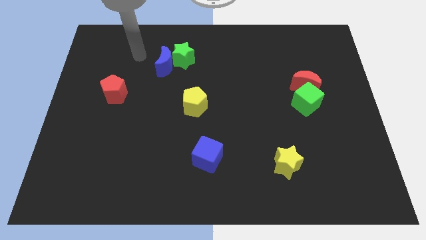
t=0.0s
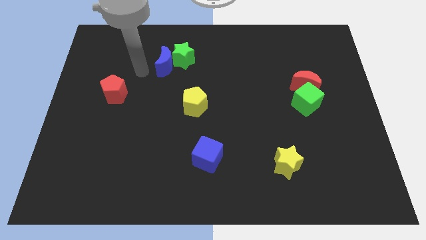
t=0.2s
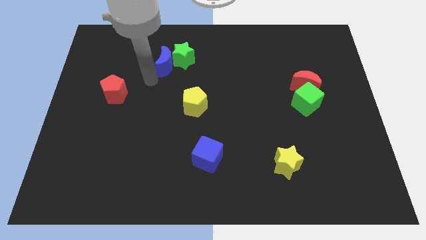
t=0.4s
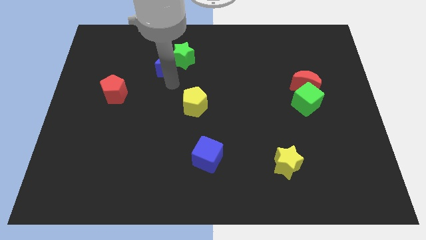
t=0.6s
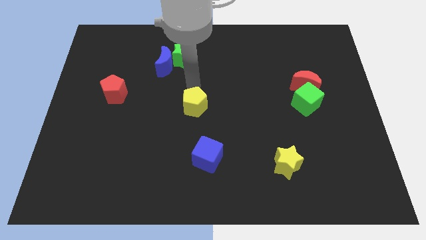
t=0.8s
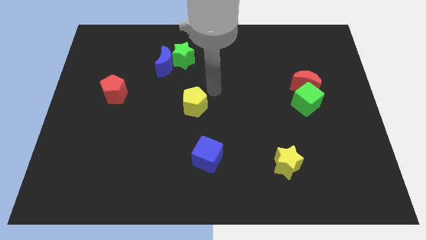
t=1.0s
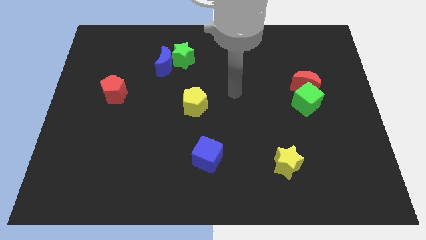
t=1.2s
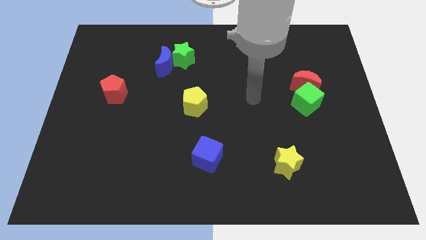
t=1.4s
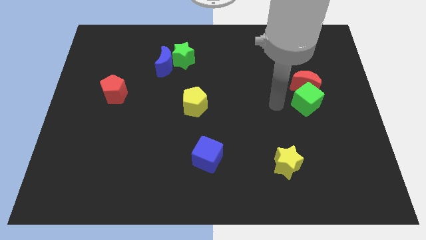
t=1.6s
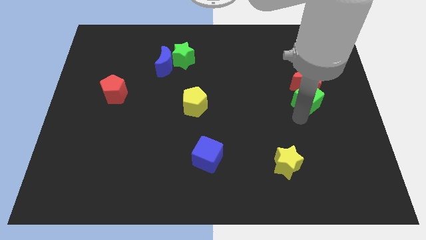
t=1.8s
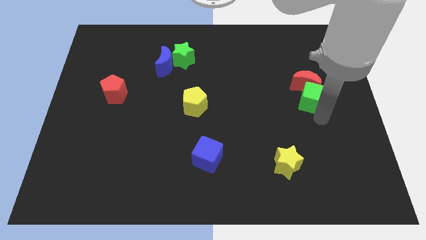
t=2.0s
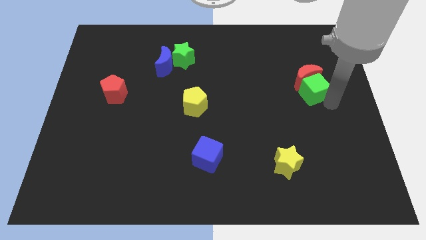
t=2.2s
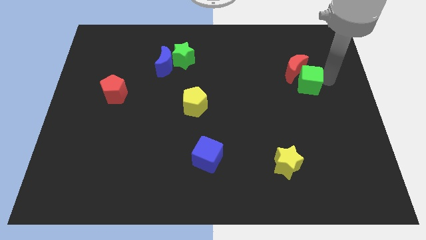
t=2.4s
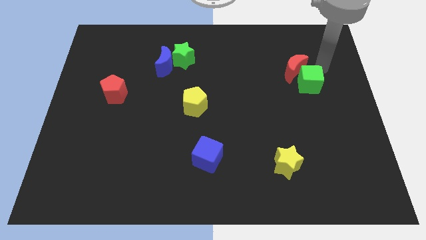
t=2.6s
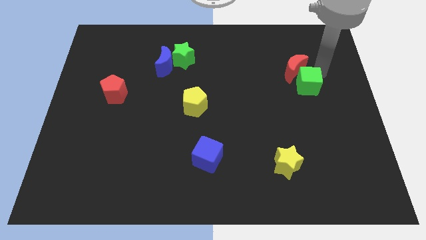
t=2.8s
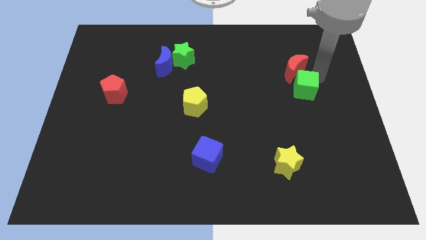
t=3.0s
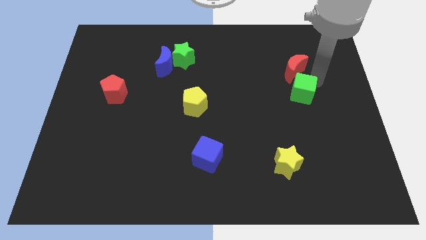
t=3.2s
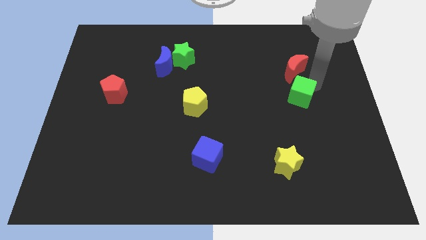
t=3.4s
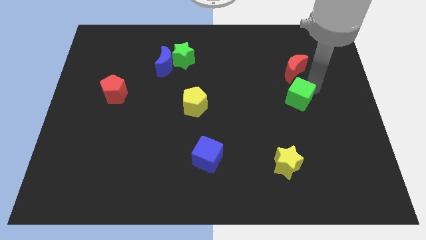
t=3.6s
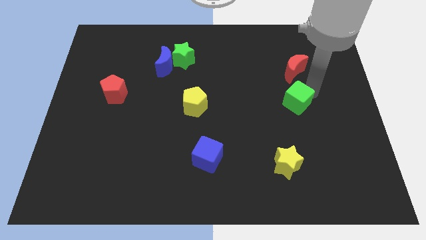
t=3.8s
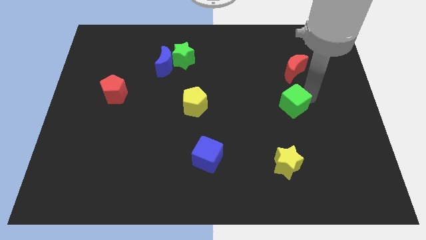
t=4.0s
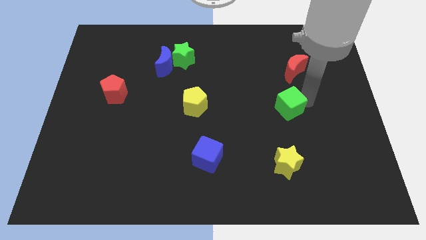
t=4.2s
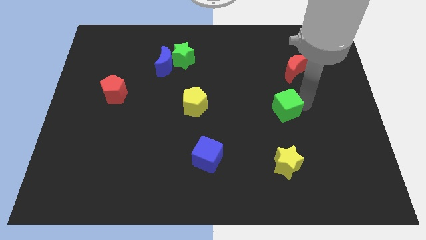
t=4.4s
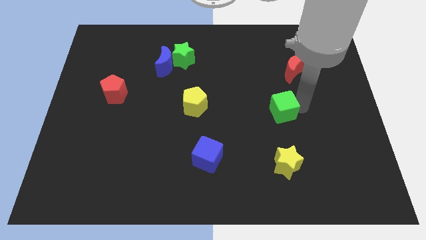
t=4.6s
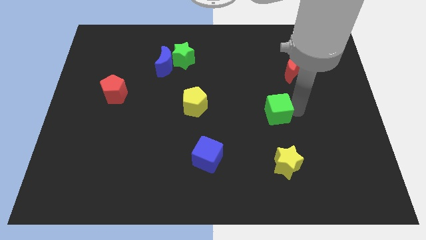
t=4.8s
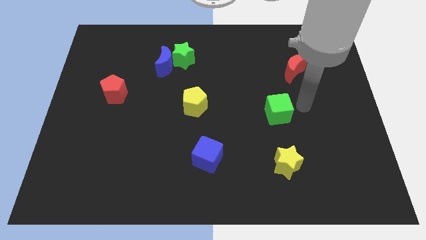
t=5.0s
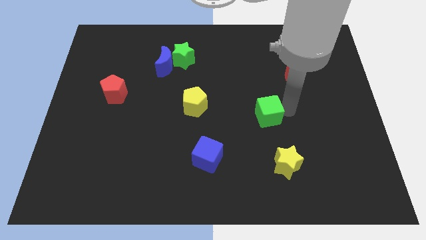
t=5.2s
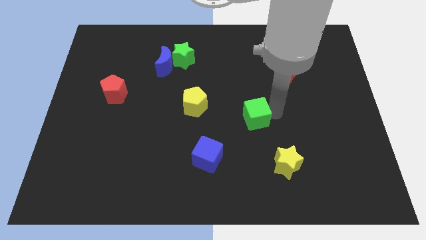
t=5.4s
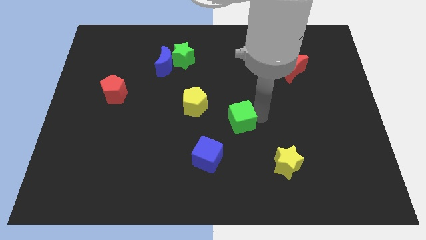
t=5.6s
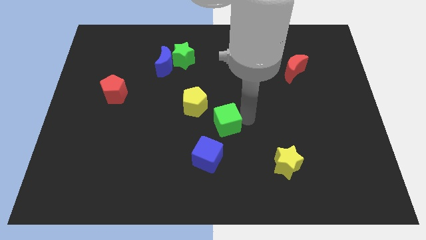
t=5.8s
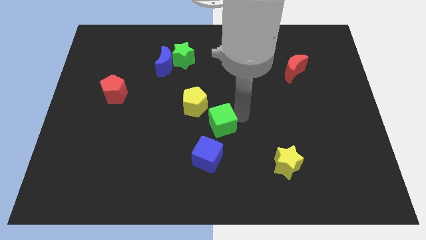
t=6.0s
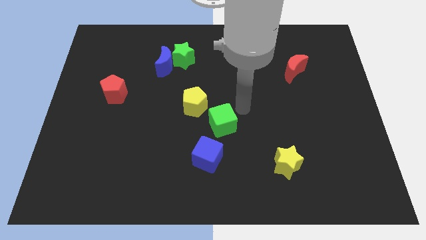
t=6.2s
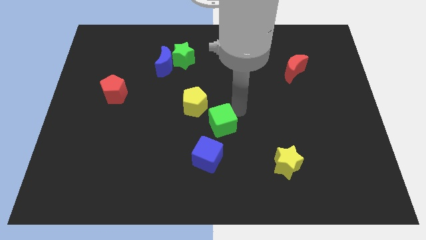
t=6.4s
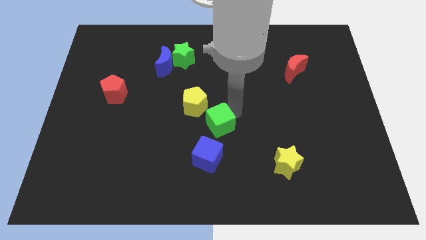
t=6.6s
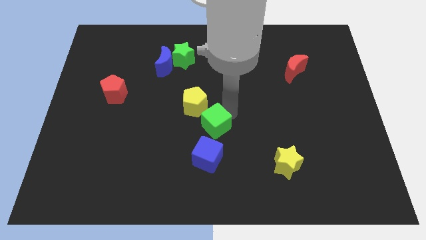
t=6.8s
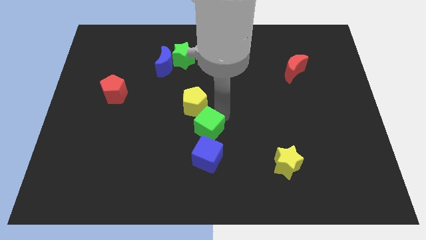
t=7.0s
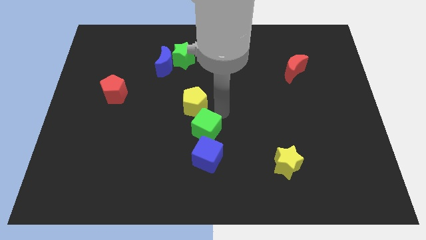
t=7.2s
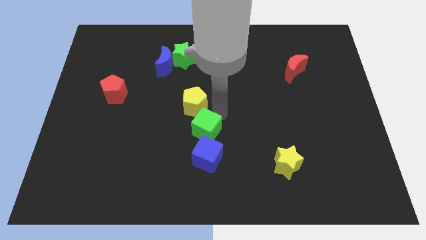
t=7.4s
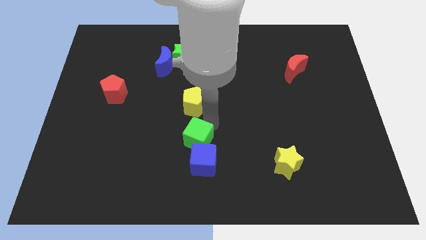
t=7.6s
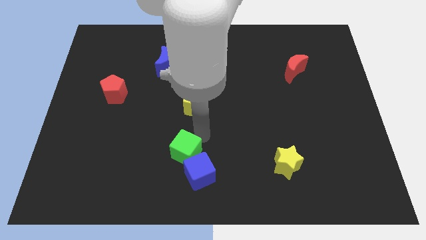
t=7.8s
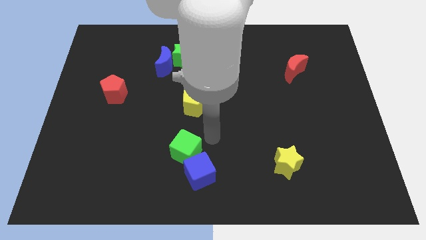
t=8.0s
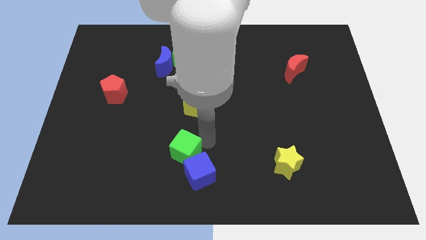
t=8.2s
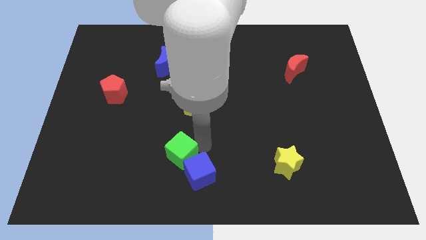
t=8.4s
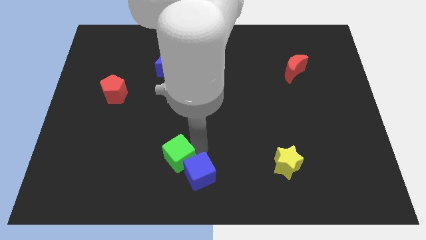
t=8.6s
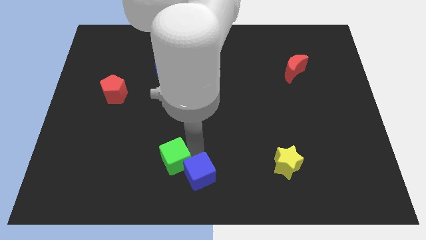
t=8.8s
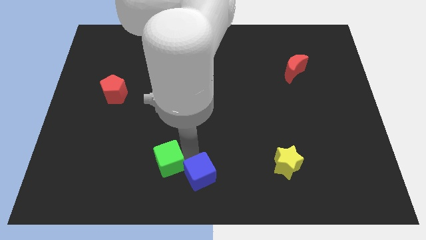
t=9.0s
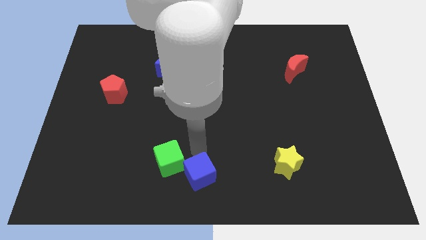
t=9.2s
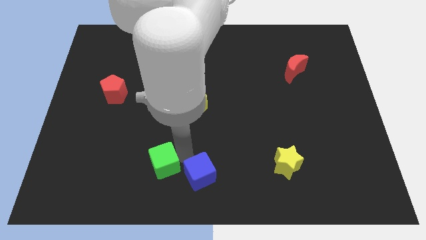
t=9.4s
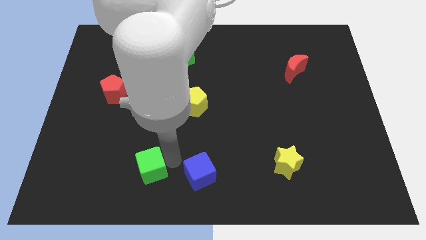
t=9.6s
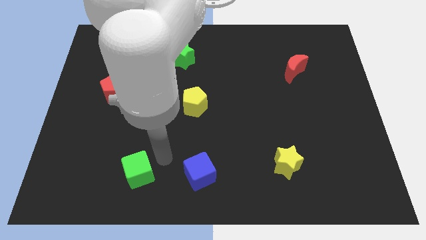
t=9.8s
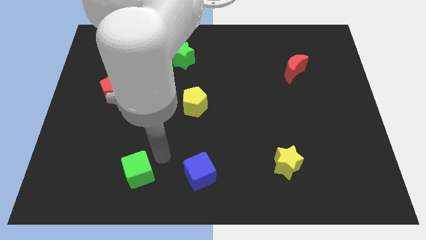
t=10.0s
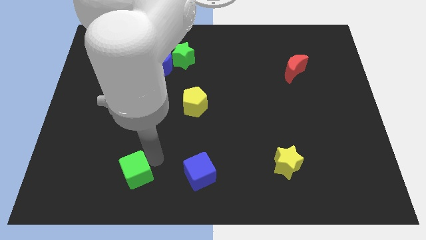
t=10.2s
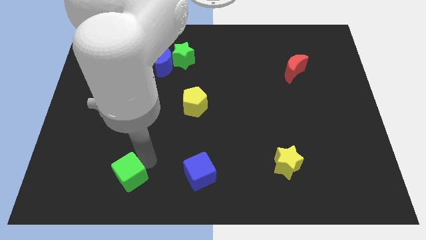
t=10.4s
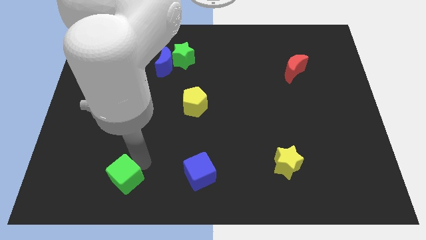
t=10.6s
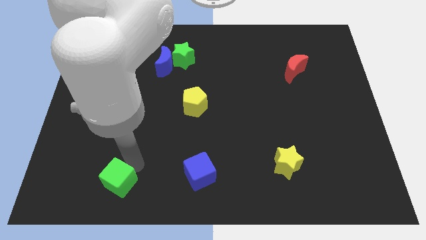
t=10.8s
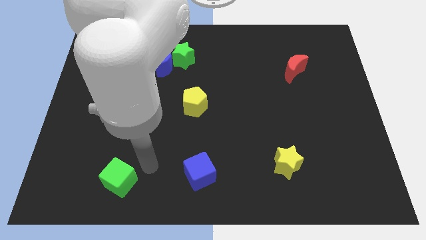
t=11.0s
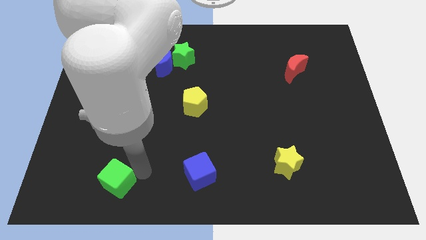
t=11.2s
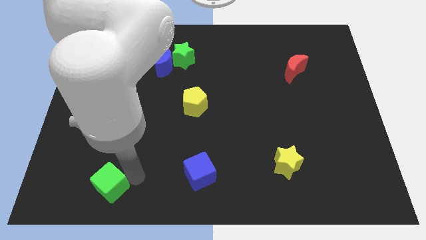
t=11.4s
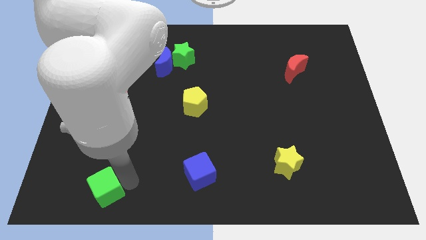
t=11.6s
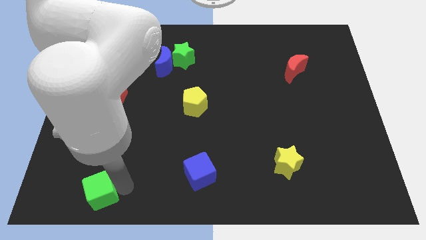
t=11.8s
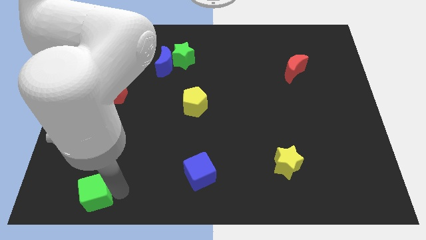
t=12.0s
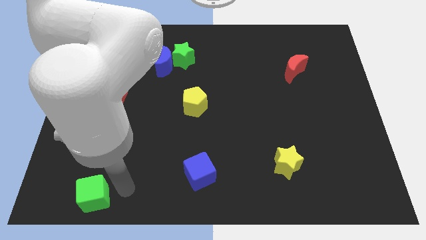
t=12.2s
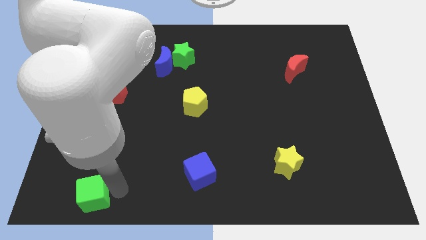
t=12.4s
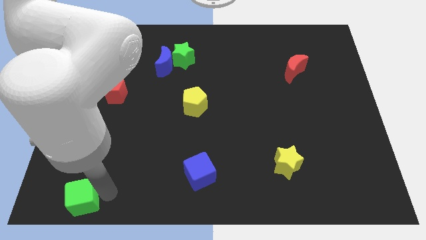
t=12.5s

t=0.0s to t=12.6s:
slide the green cube to the bottom left of the board
